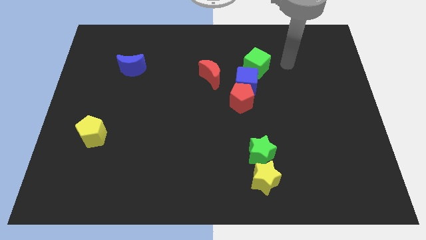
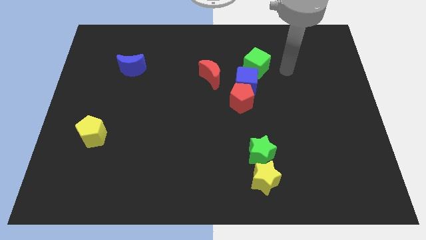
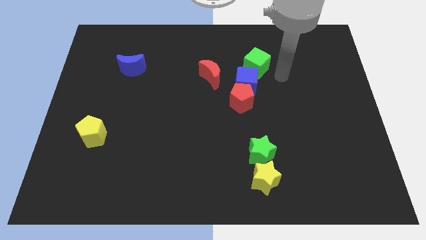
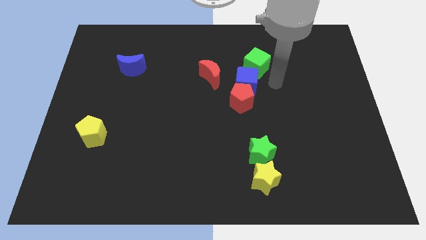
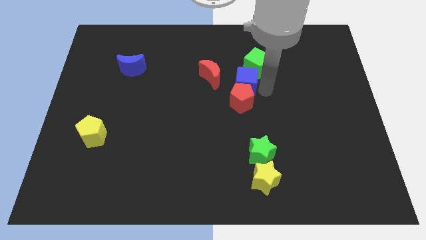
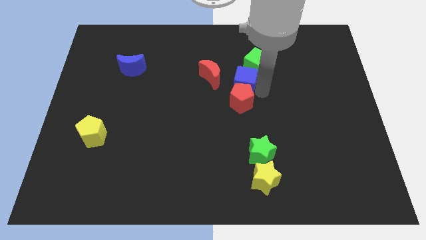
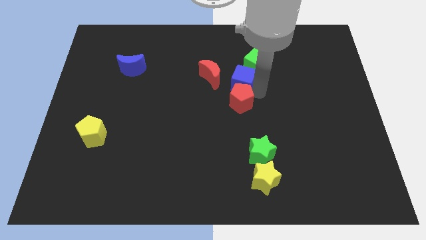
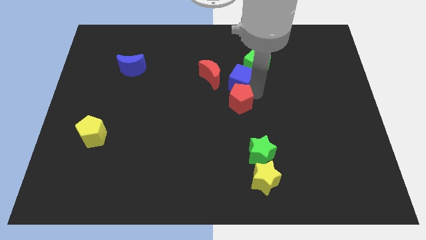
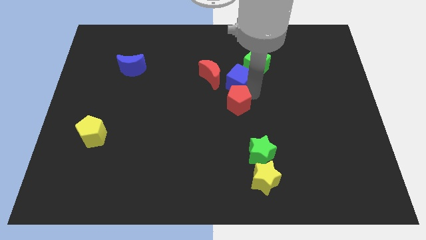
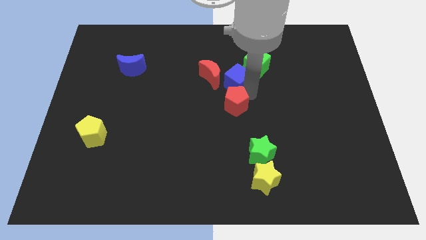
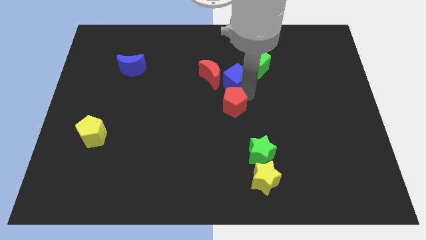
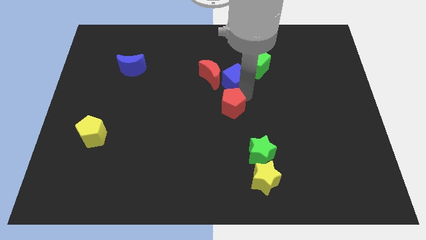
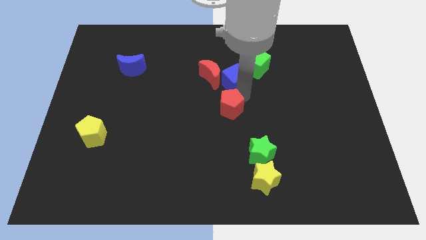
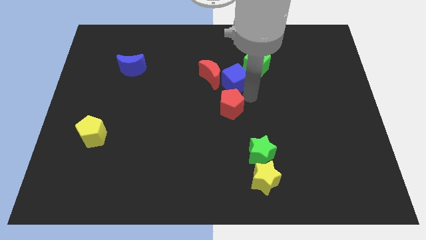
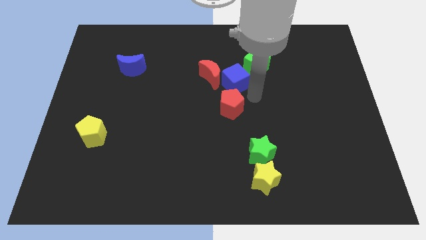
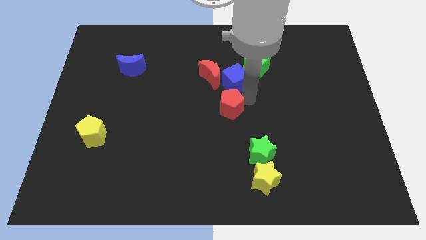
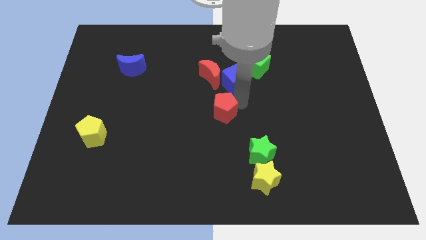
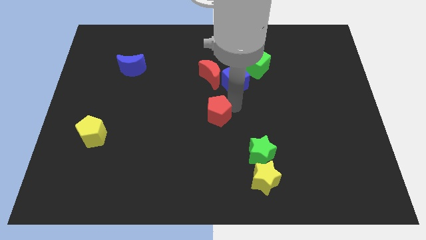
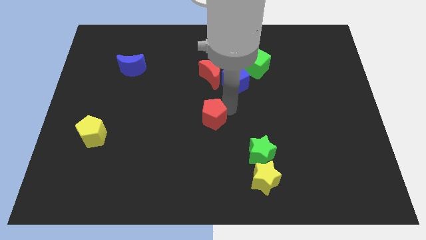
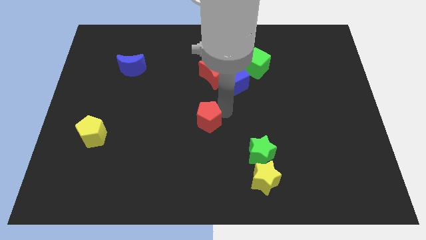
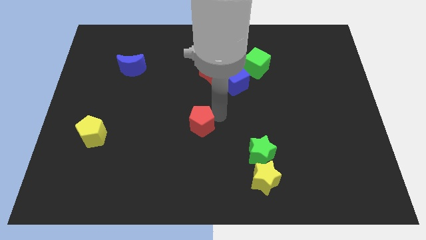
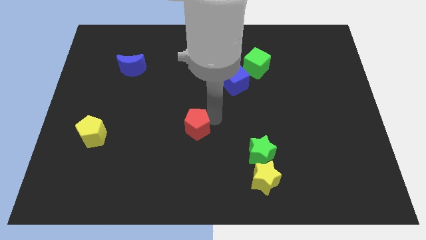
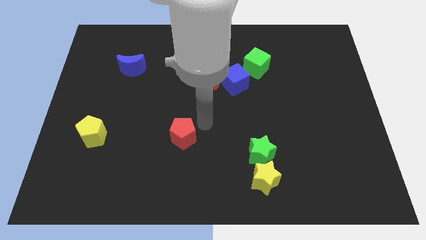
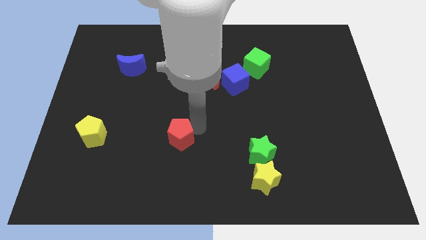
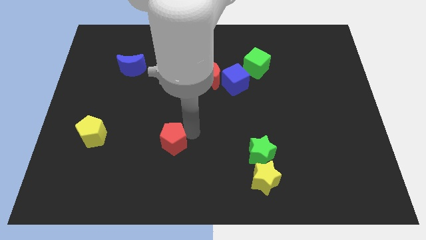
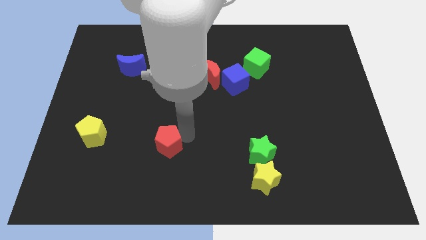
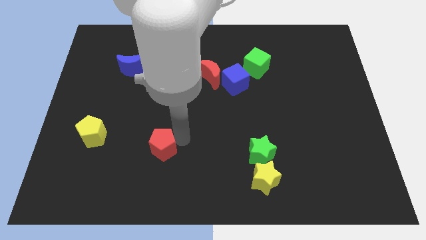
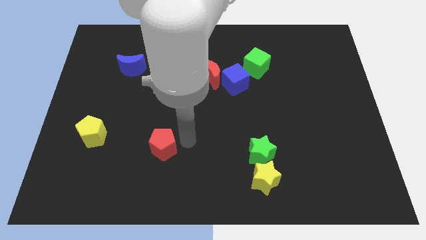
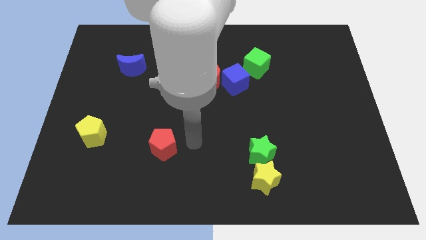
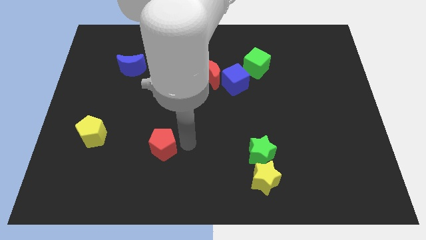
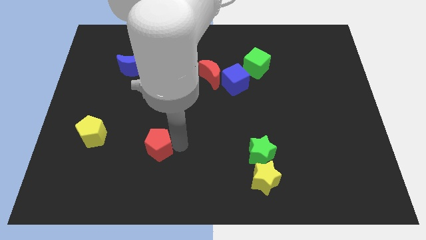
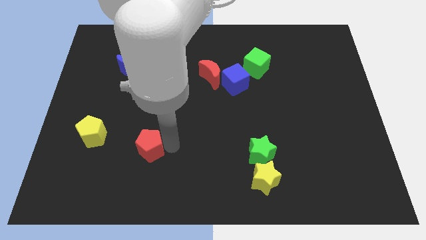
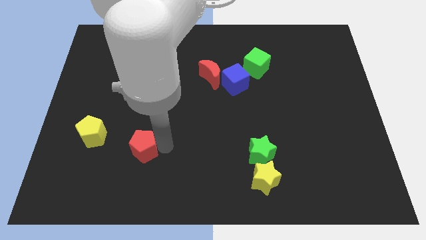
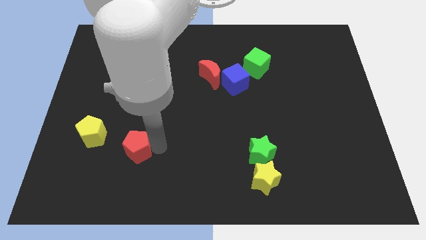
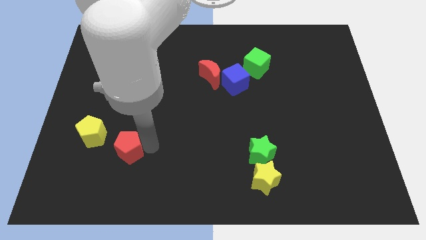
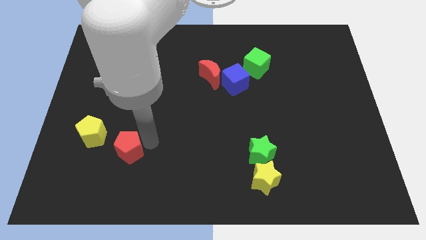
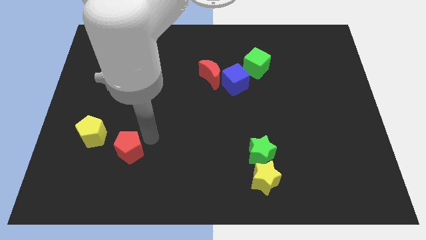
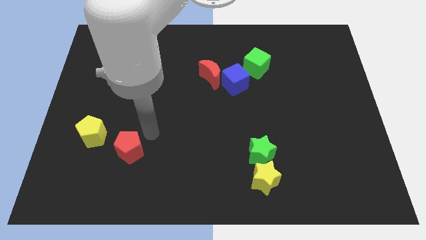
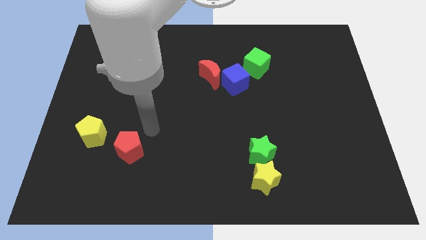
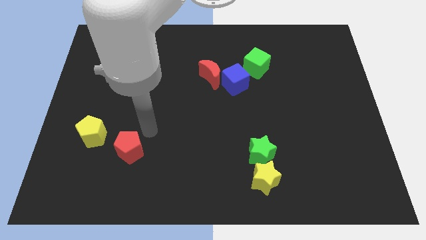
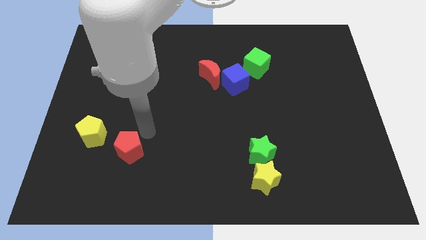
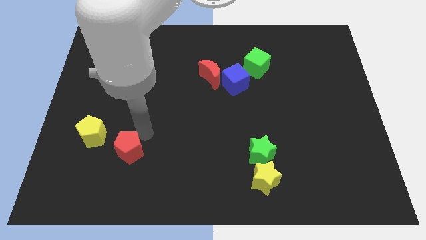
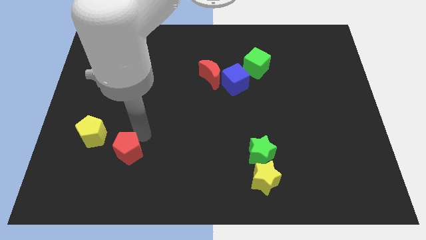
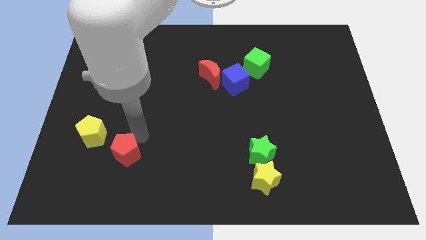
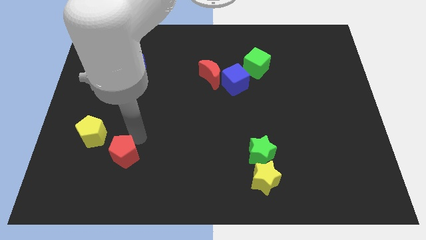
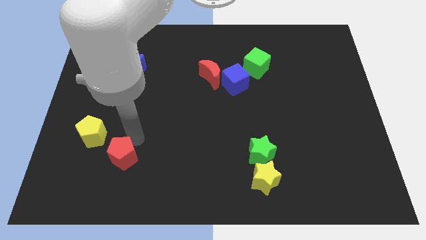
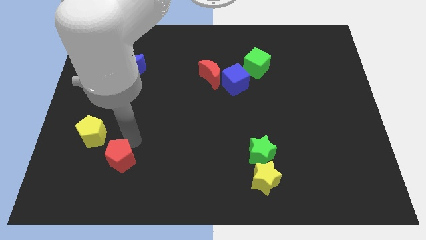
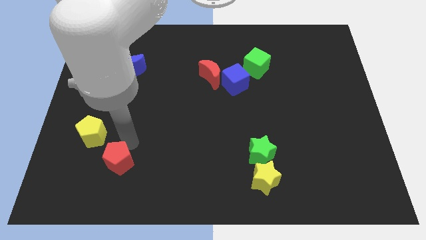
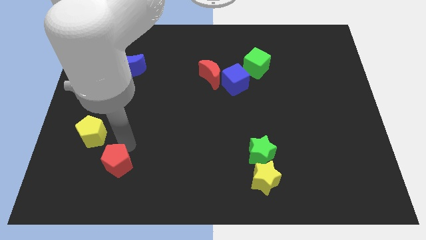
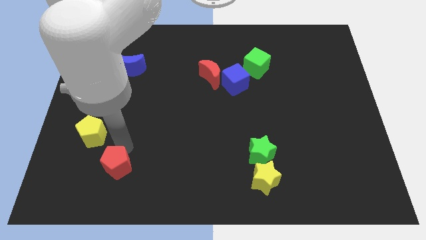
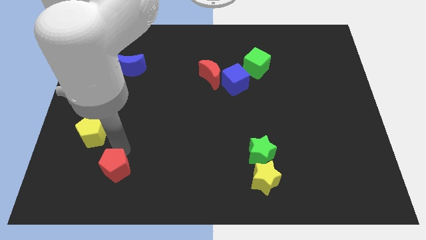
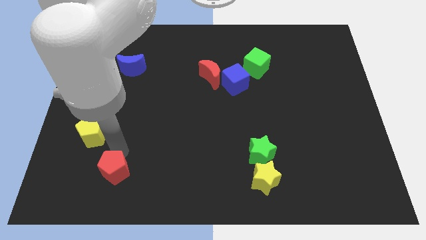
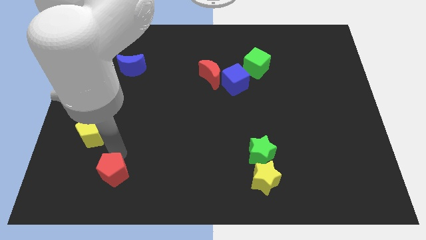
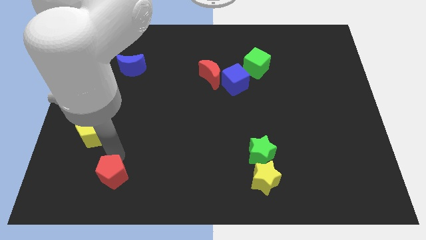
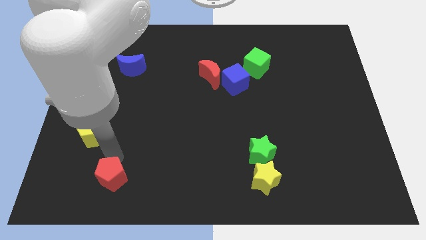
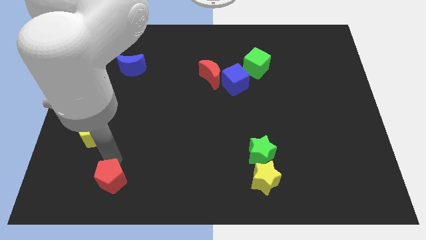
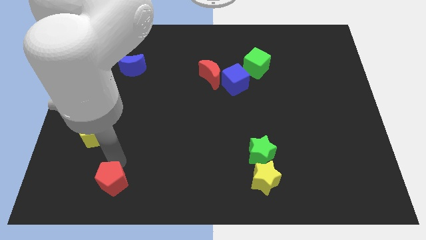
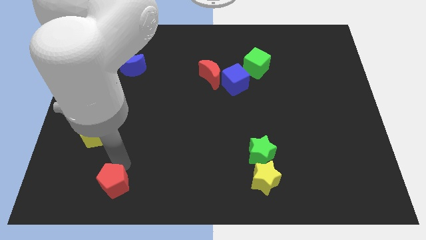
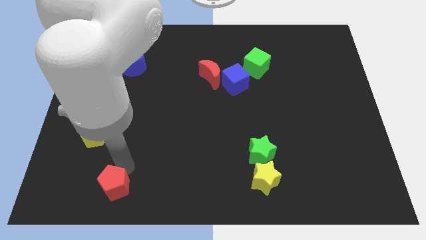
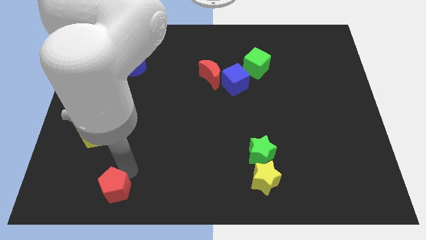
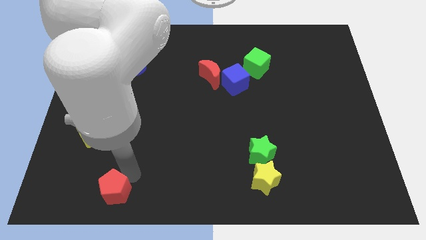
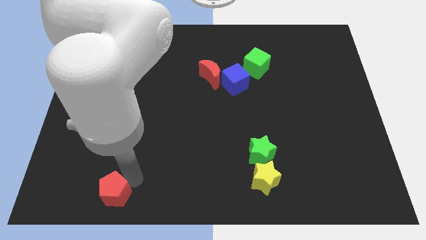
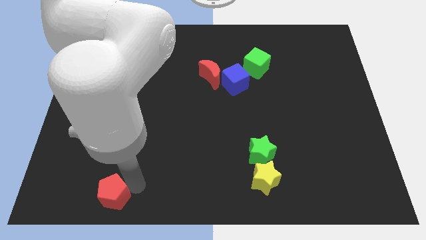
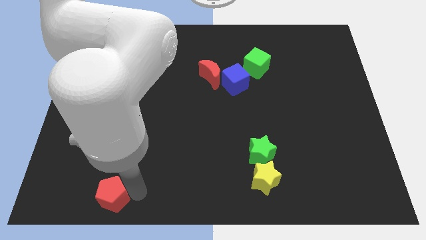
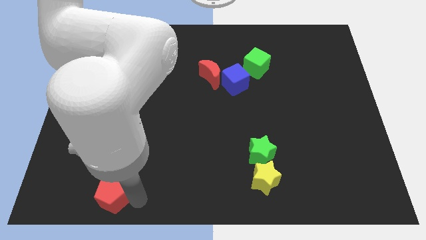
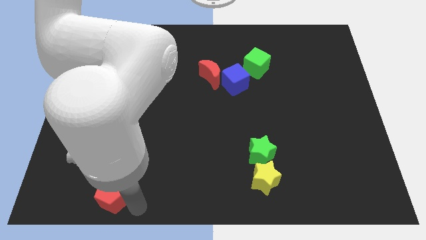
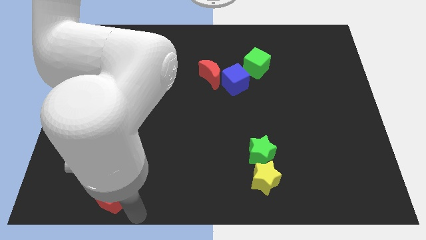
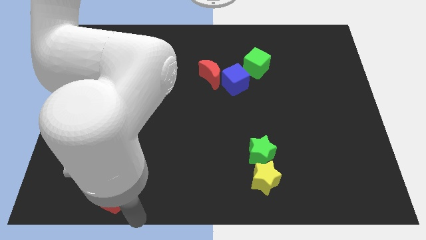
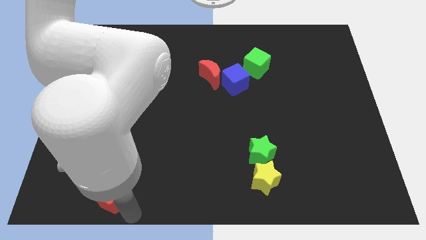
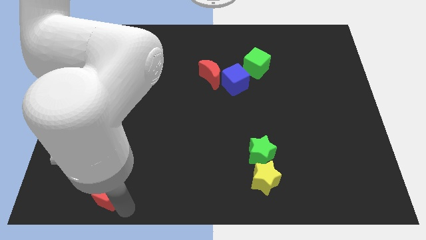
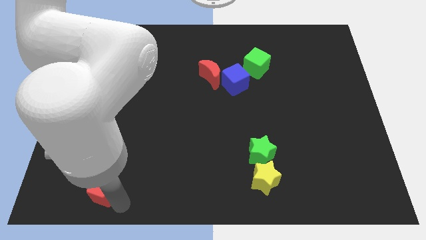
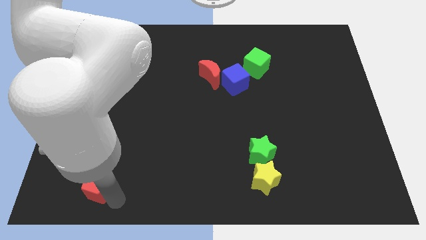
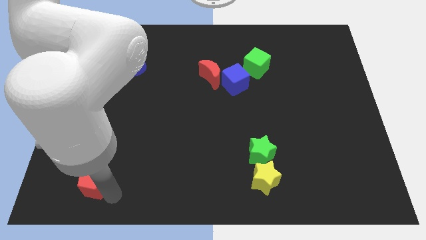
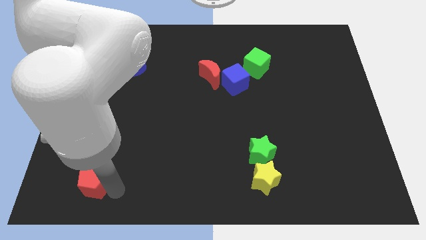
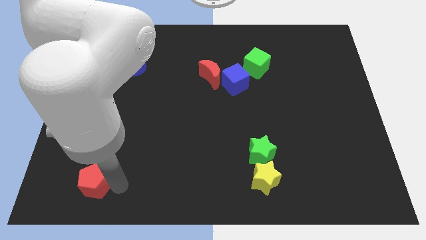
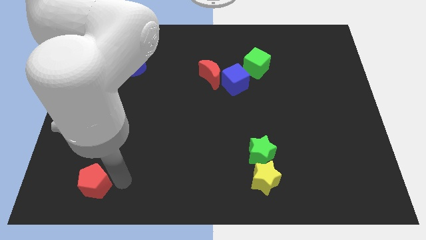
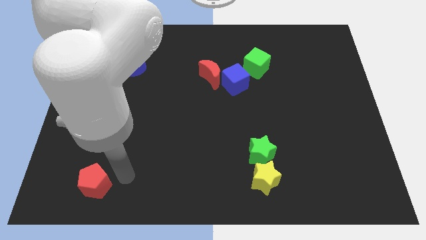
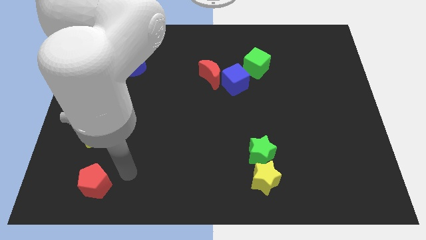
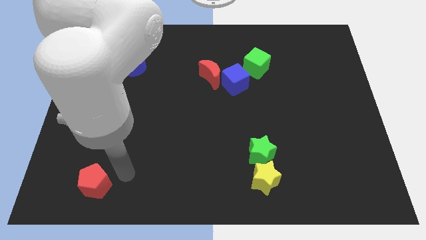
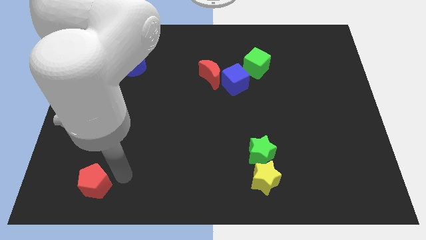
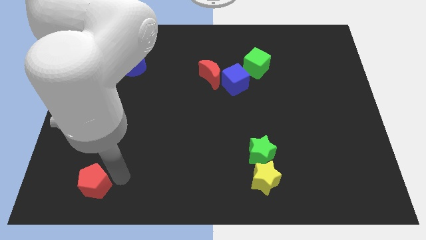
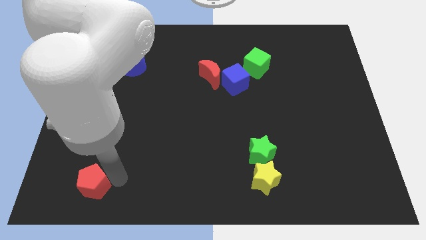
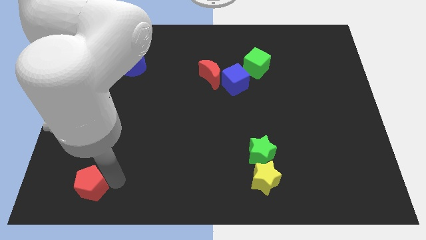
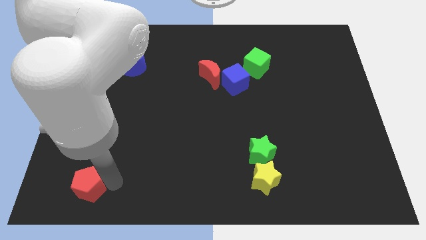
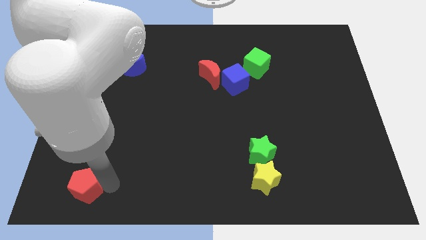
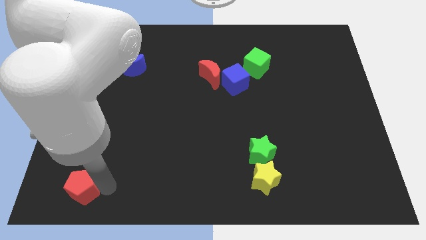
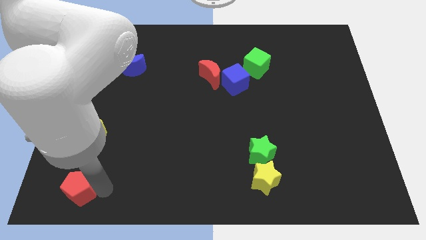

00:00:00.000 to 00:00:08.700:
push the red pentagon to the bottom left corner
